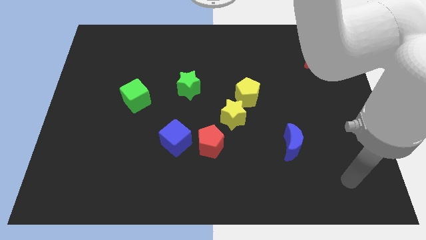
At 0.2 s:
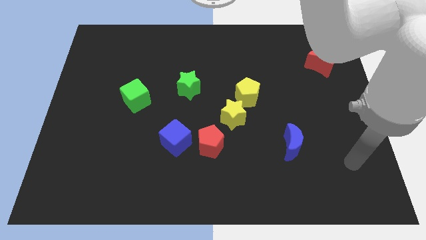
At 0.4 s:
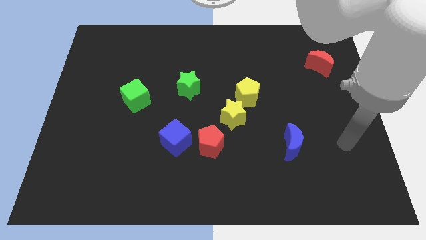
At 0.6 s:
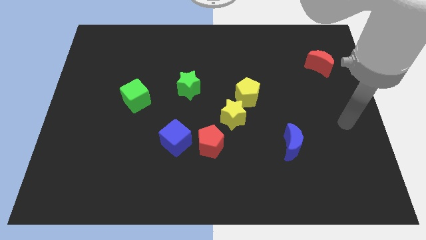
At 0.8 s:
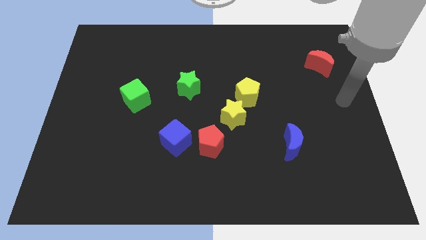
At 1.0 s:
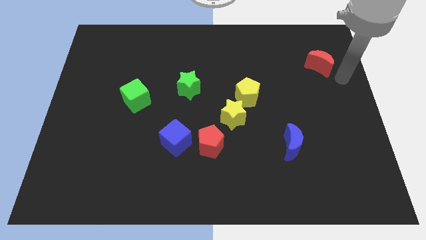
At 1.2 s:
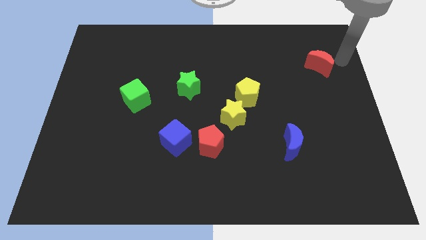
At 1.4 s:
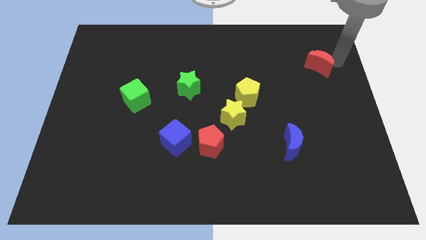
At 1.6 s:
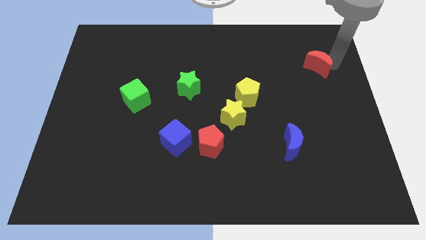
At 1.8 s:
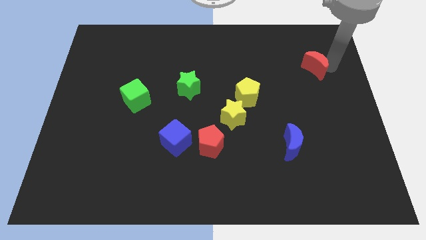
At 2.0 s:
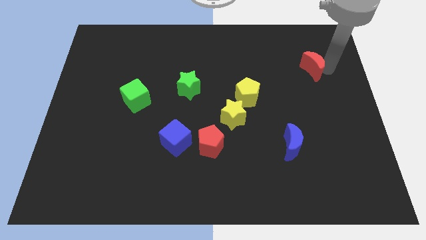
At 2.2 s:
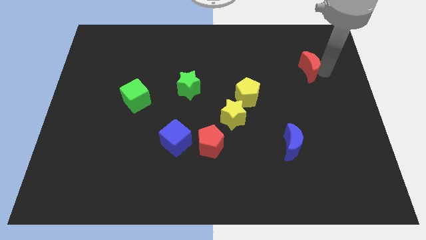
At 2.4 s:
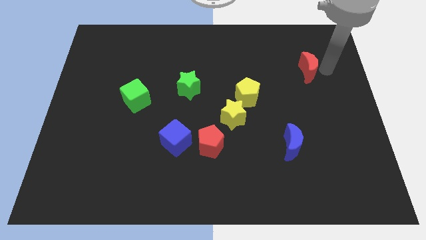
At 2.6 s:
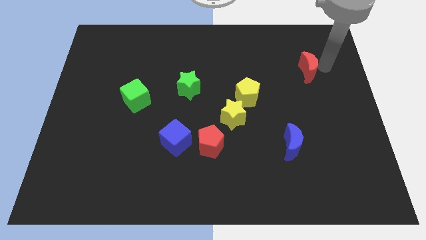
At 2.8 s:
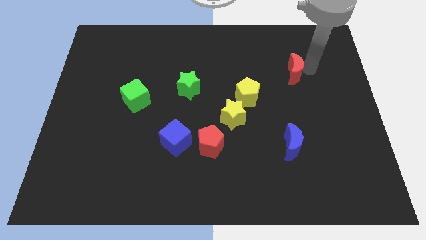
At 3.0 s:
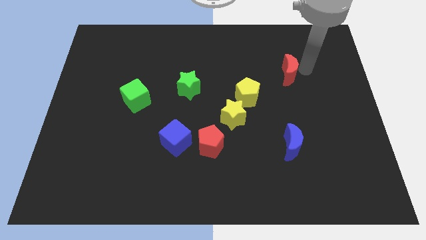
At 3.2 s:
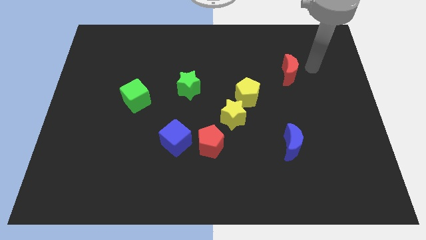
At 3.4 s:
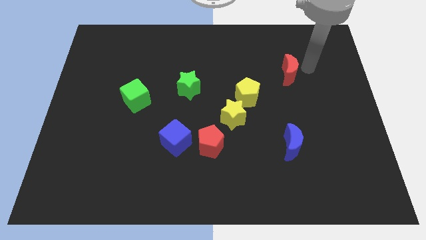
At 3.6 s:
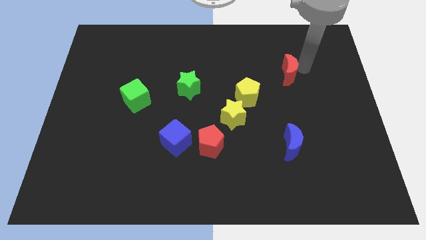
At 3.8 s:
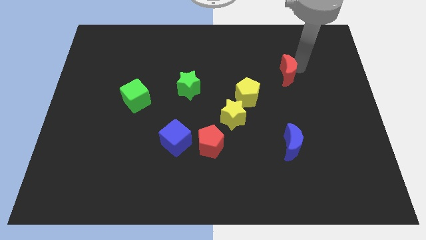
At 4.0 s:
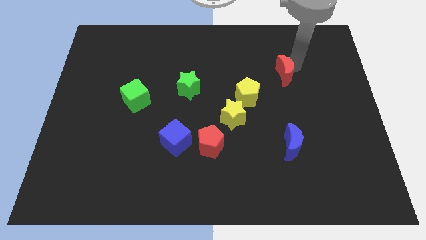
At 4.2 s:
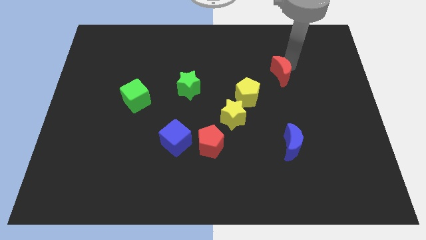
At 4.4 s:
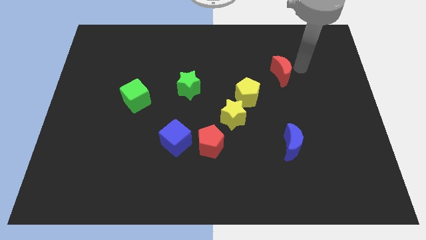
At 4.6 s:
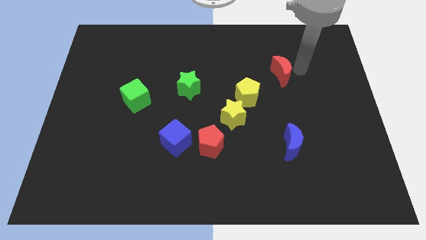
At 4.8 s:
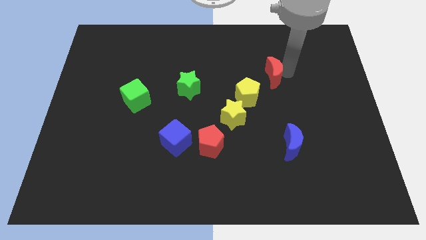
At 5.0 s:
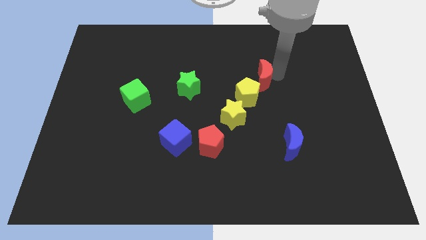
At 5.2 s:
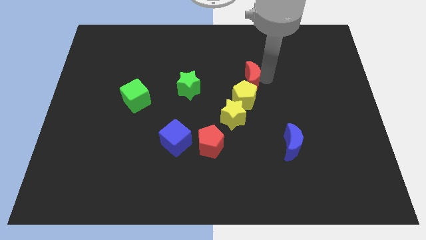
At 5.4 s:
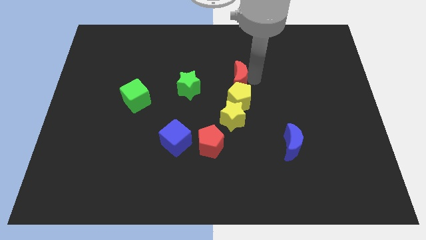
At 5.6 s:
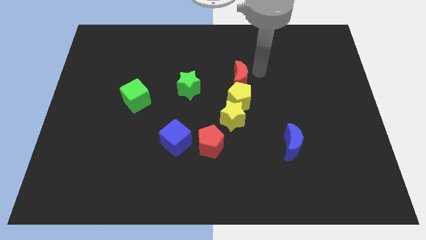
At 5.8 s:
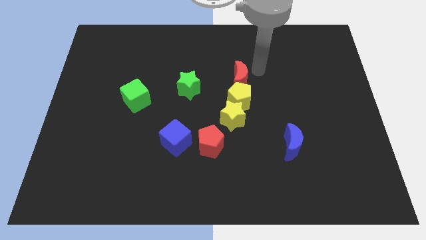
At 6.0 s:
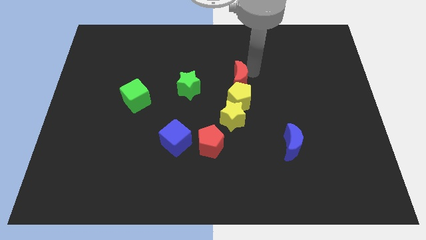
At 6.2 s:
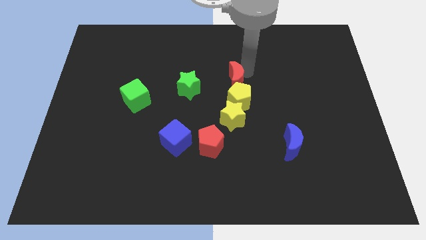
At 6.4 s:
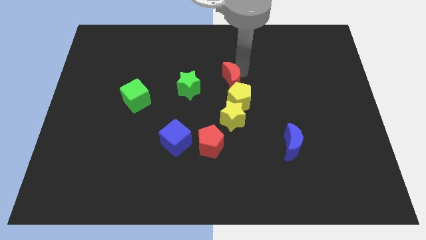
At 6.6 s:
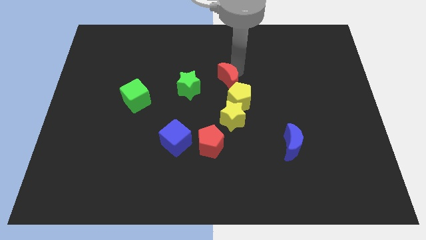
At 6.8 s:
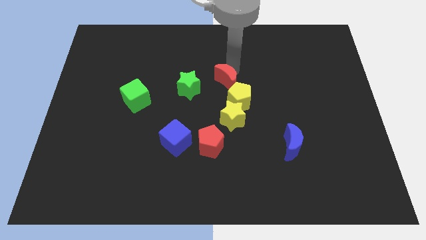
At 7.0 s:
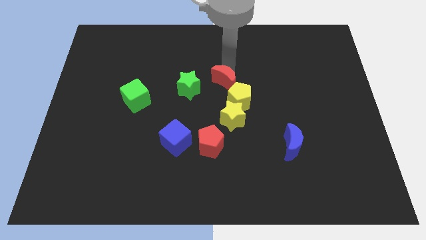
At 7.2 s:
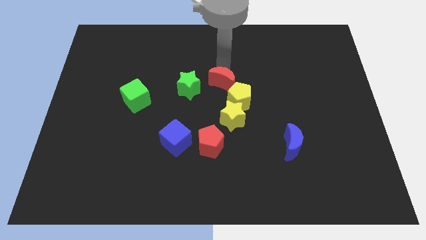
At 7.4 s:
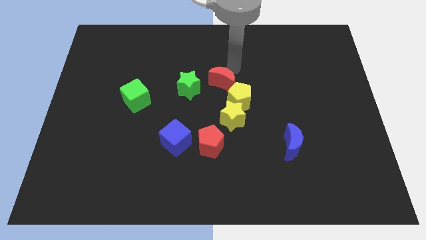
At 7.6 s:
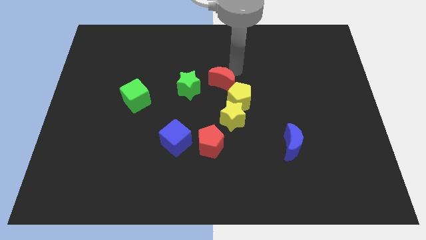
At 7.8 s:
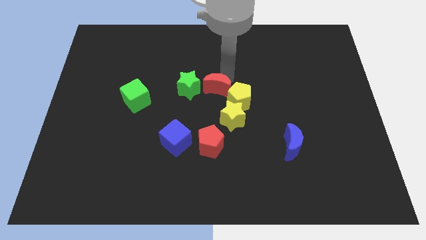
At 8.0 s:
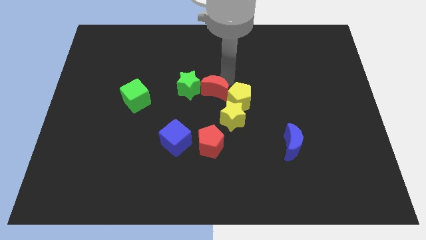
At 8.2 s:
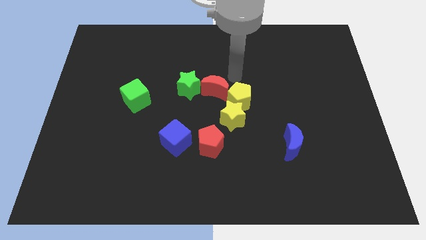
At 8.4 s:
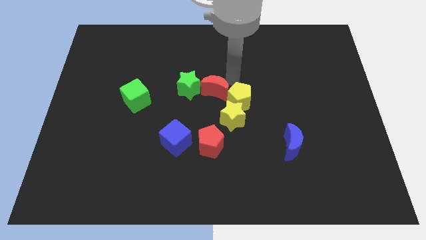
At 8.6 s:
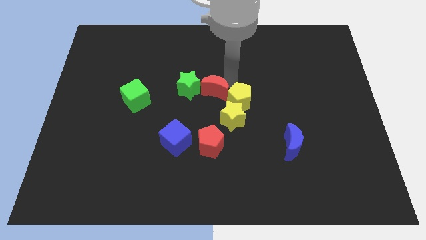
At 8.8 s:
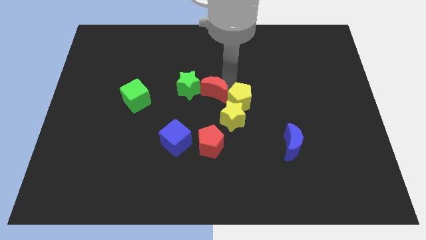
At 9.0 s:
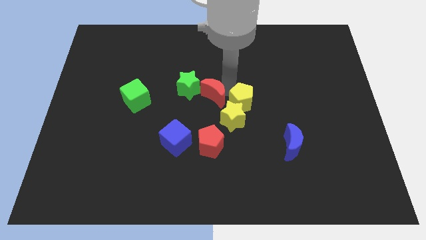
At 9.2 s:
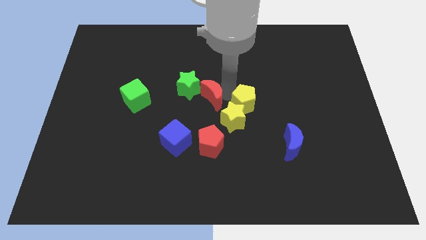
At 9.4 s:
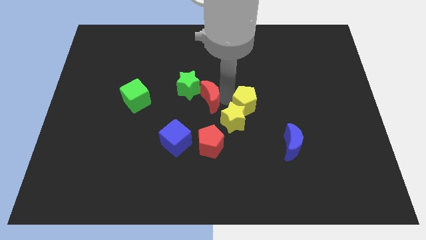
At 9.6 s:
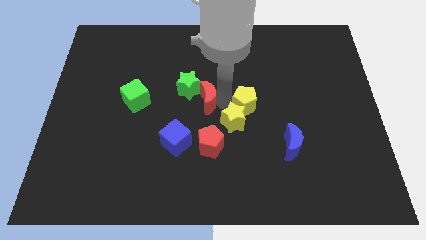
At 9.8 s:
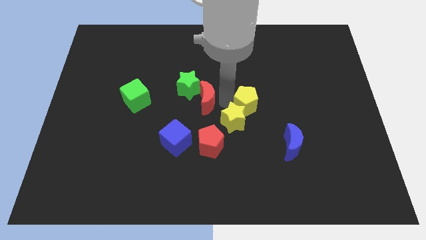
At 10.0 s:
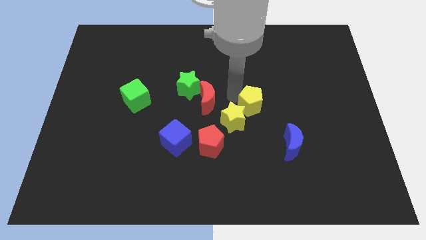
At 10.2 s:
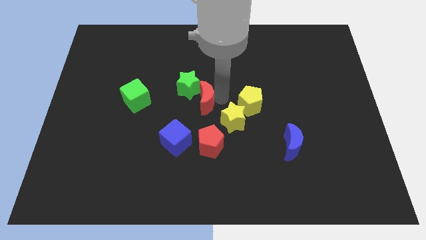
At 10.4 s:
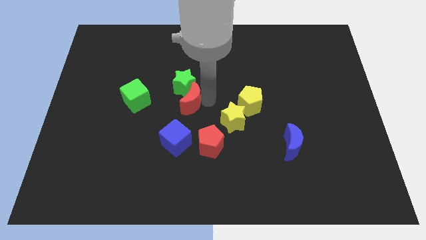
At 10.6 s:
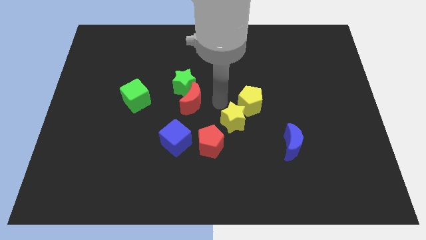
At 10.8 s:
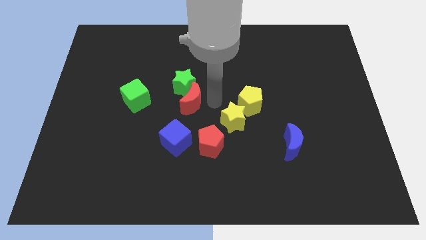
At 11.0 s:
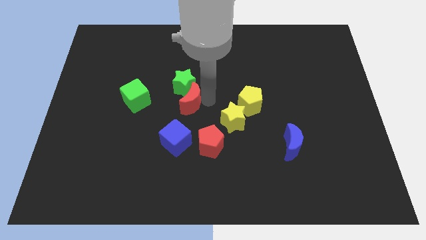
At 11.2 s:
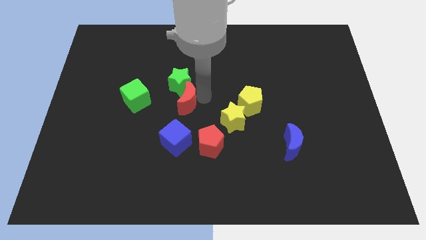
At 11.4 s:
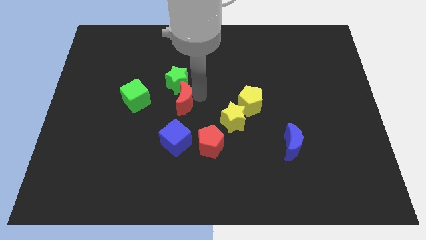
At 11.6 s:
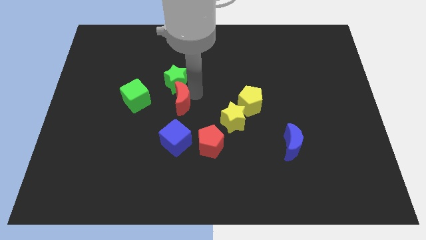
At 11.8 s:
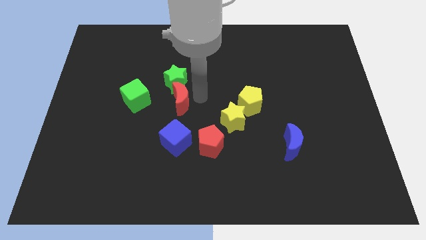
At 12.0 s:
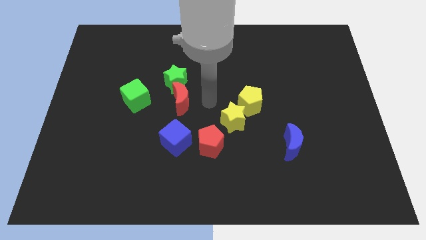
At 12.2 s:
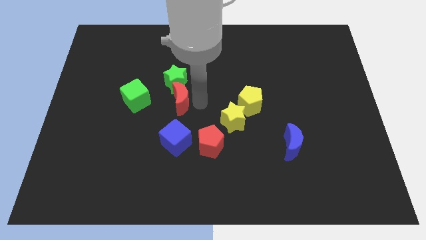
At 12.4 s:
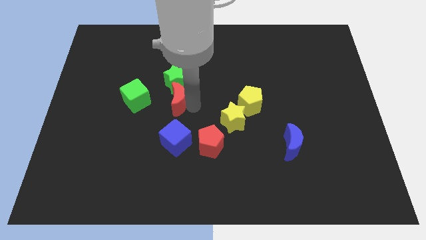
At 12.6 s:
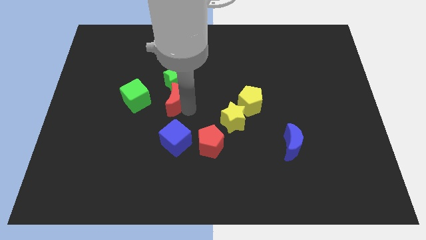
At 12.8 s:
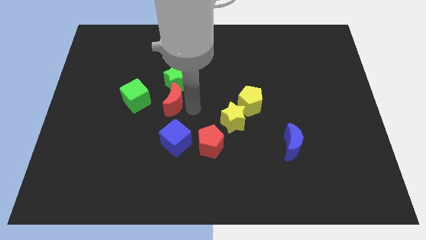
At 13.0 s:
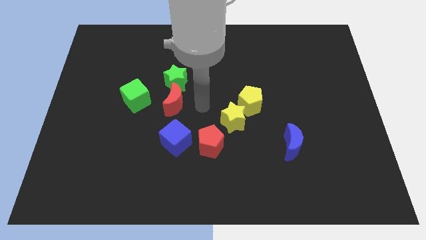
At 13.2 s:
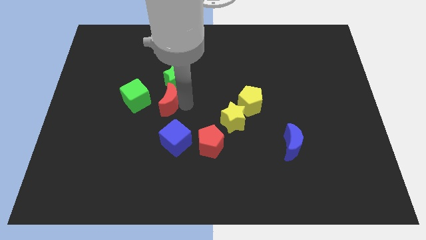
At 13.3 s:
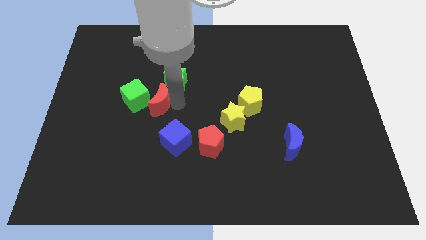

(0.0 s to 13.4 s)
push the red moon towards the green cube

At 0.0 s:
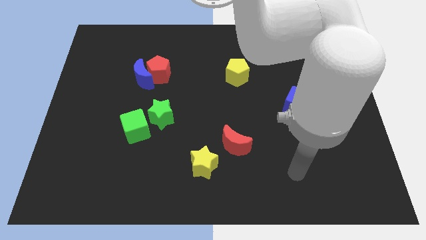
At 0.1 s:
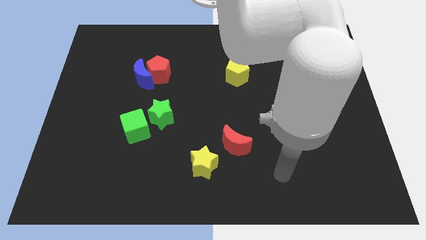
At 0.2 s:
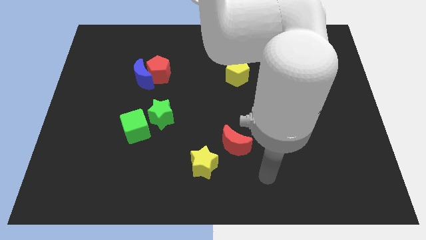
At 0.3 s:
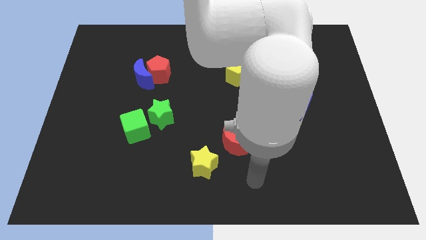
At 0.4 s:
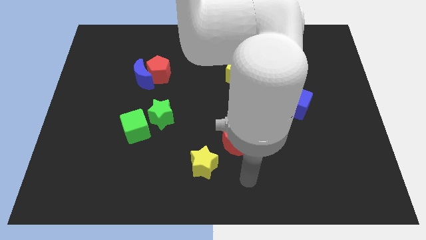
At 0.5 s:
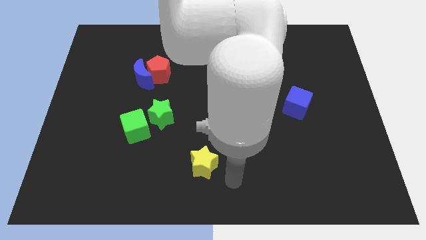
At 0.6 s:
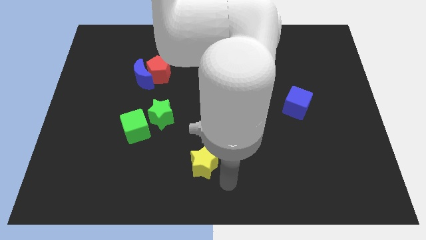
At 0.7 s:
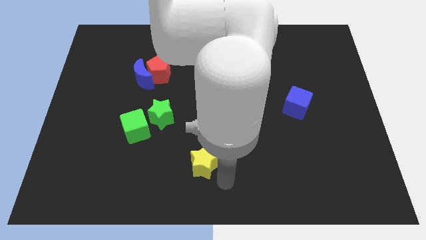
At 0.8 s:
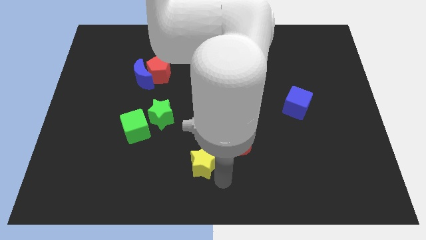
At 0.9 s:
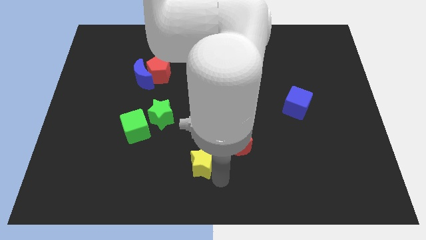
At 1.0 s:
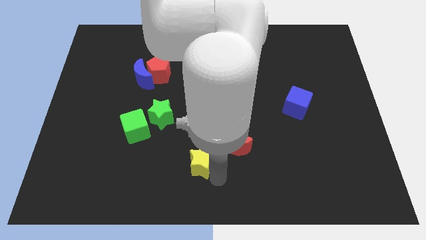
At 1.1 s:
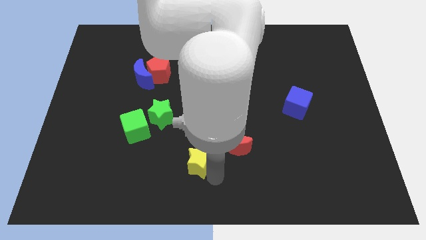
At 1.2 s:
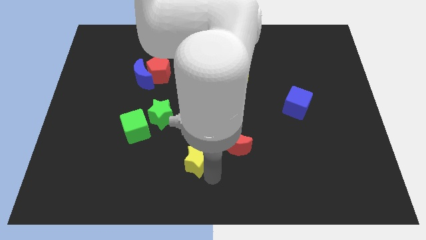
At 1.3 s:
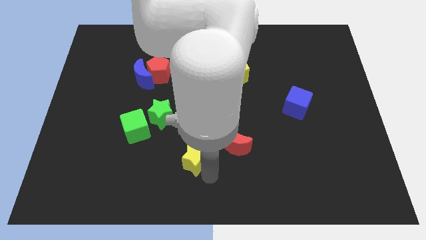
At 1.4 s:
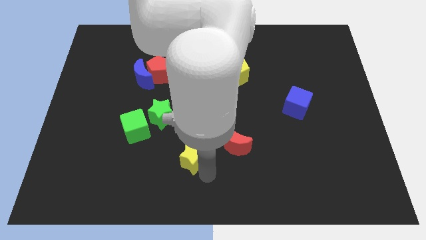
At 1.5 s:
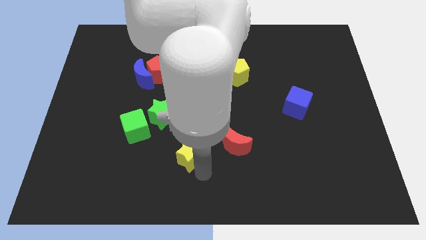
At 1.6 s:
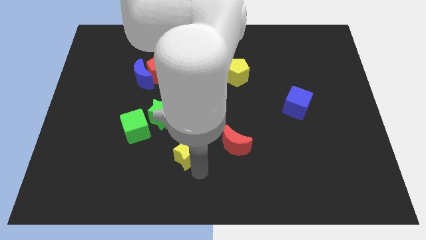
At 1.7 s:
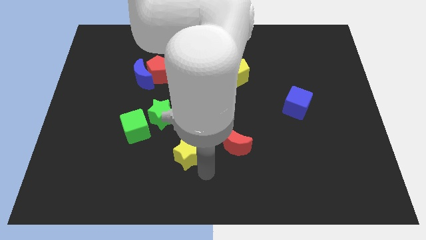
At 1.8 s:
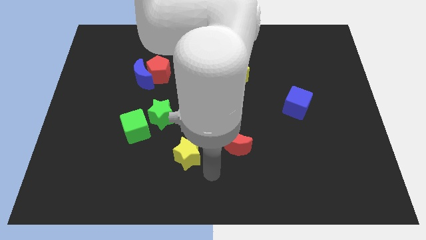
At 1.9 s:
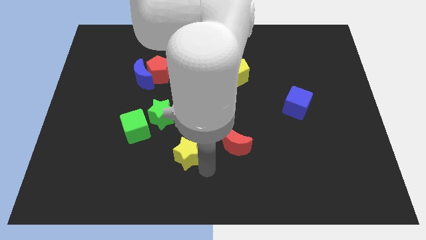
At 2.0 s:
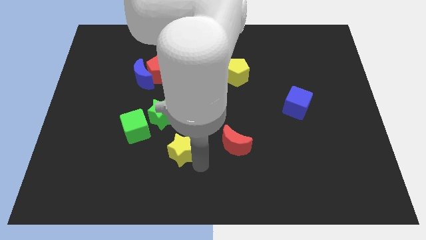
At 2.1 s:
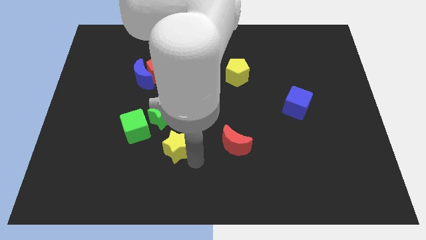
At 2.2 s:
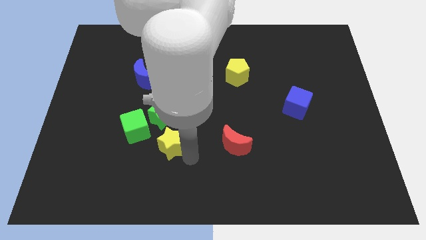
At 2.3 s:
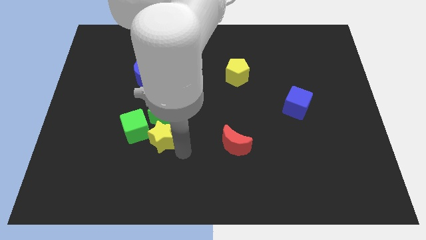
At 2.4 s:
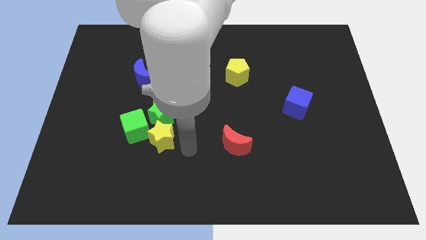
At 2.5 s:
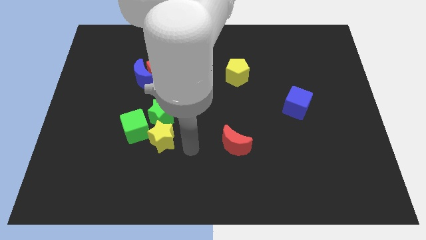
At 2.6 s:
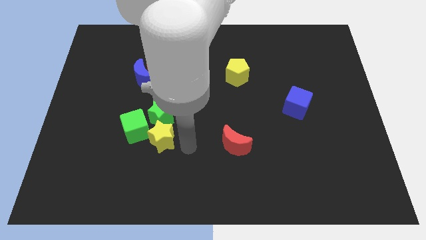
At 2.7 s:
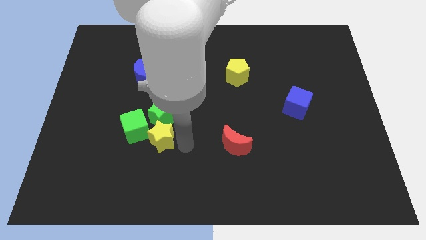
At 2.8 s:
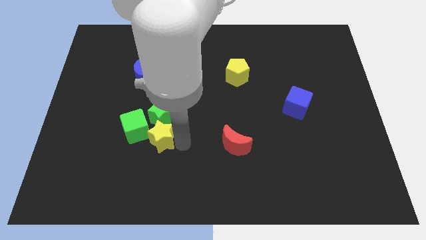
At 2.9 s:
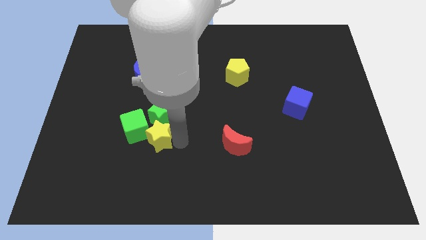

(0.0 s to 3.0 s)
slide the yellow star next to the green cube
